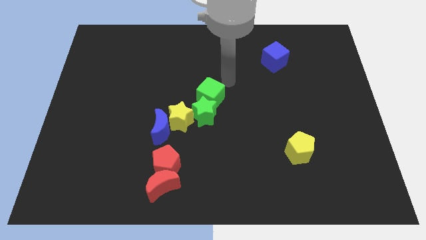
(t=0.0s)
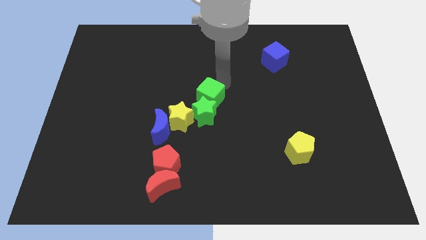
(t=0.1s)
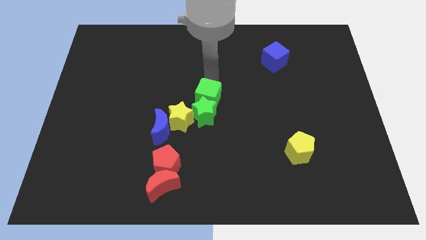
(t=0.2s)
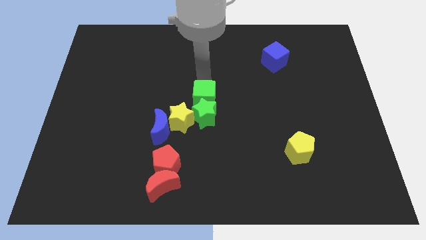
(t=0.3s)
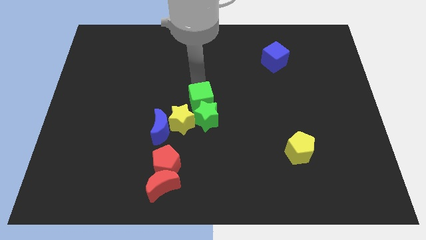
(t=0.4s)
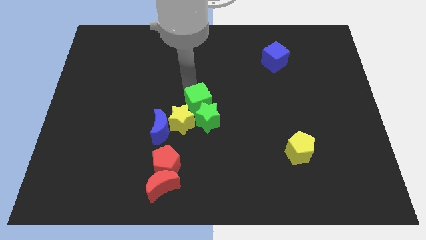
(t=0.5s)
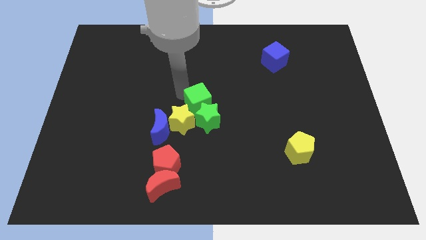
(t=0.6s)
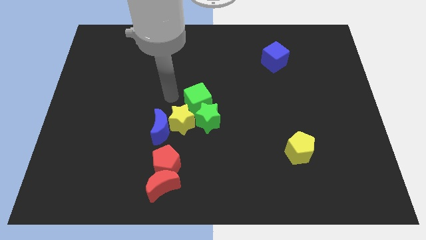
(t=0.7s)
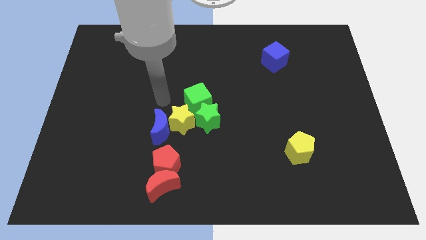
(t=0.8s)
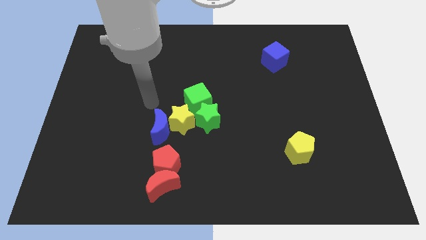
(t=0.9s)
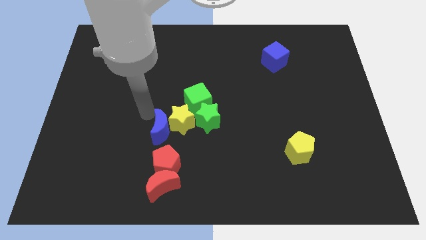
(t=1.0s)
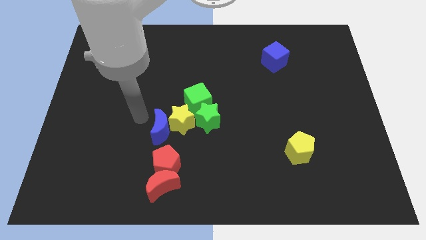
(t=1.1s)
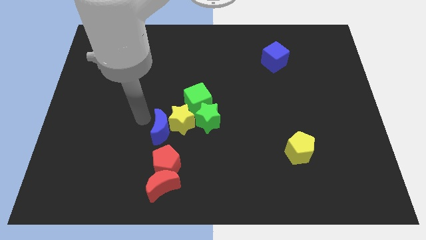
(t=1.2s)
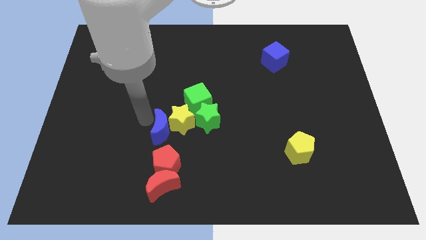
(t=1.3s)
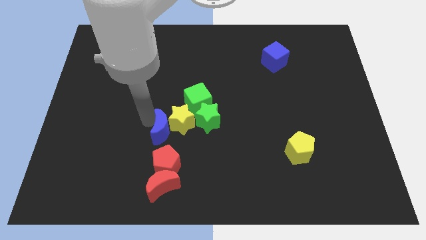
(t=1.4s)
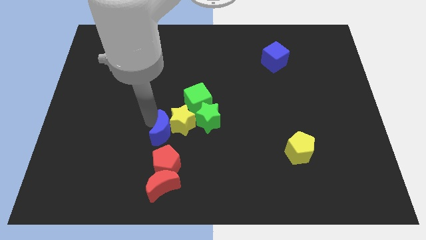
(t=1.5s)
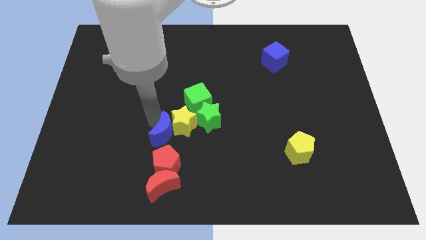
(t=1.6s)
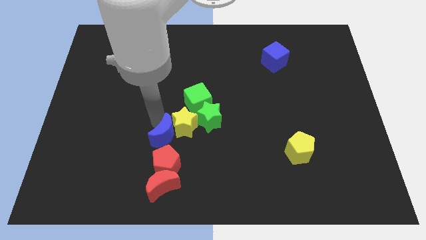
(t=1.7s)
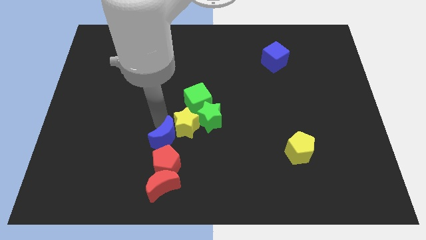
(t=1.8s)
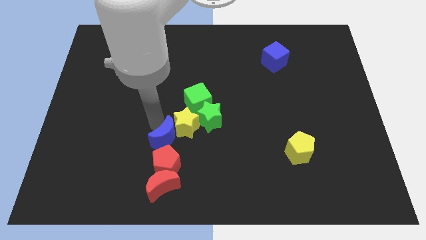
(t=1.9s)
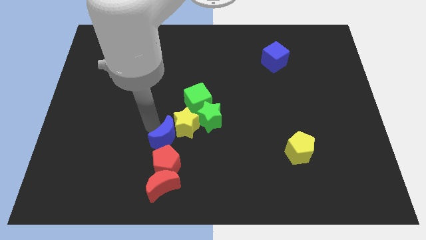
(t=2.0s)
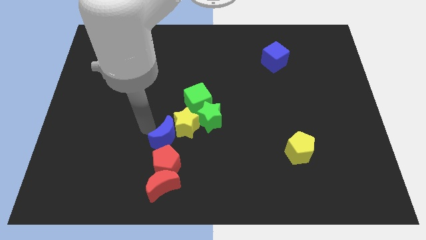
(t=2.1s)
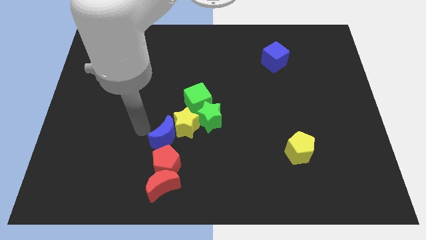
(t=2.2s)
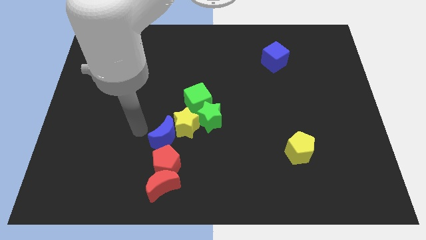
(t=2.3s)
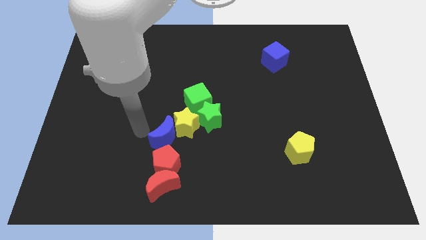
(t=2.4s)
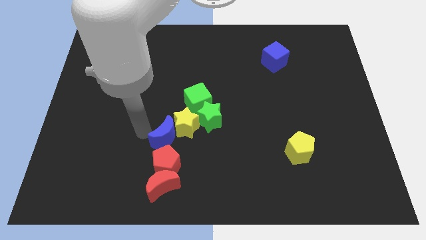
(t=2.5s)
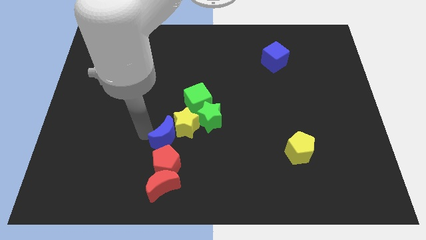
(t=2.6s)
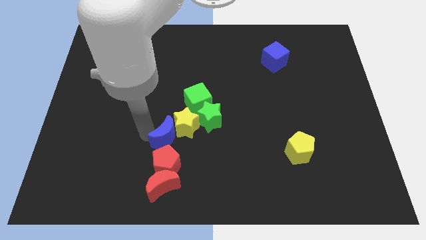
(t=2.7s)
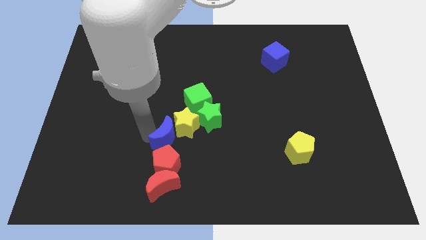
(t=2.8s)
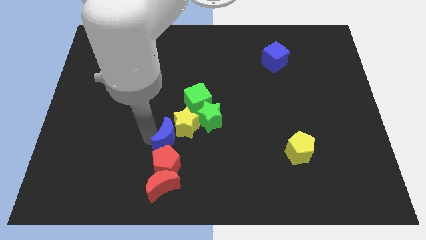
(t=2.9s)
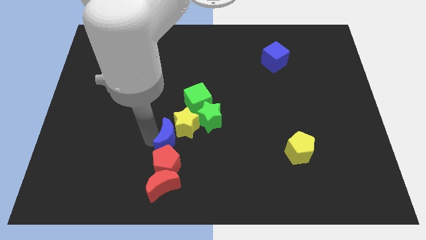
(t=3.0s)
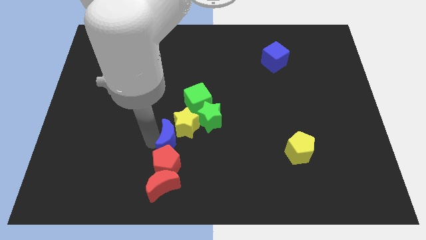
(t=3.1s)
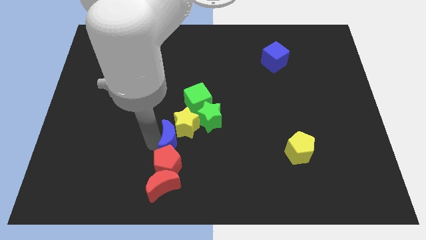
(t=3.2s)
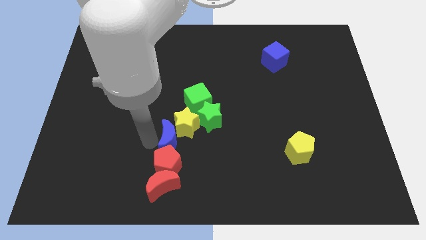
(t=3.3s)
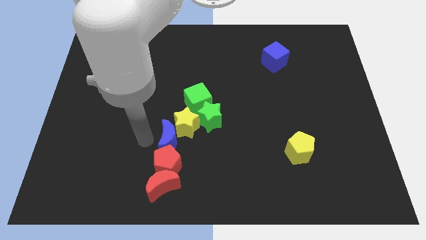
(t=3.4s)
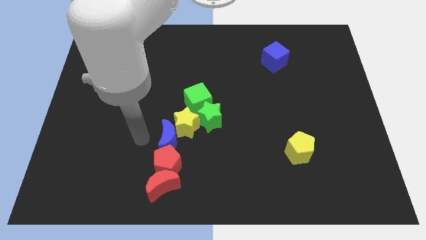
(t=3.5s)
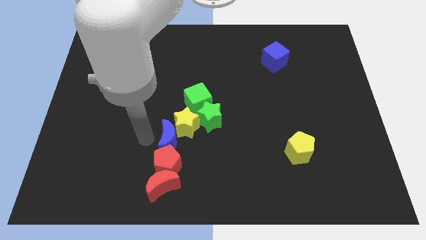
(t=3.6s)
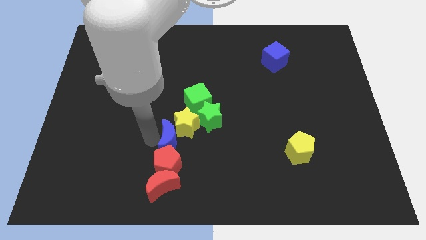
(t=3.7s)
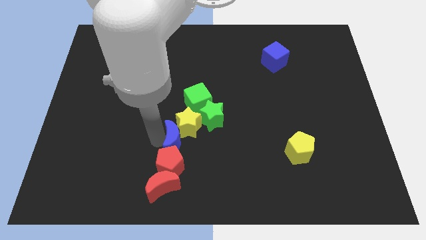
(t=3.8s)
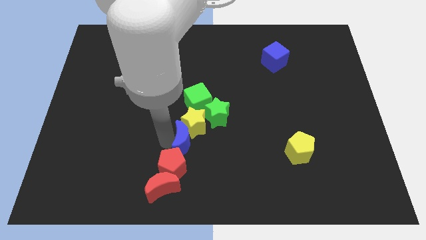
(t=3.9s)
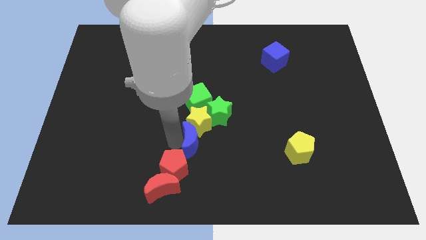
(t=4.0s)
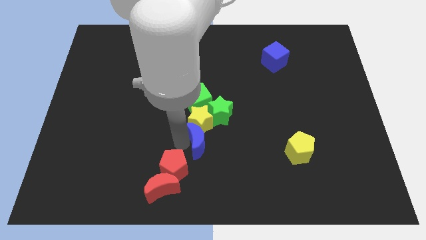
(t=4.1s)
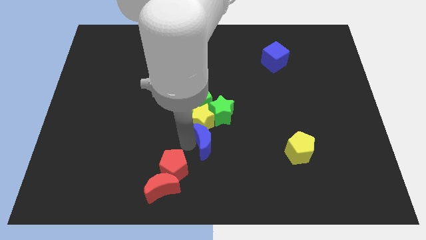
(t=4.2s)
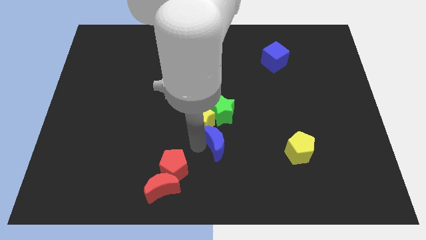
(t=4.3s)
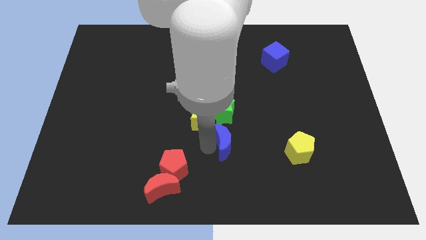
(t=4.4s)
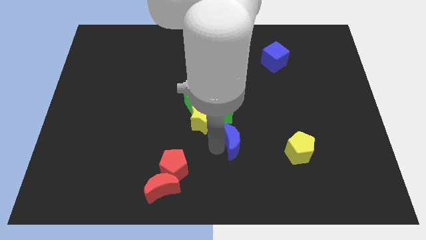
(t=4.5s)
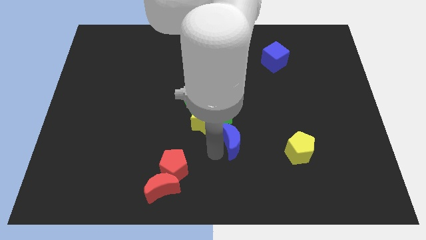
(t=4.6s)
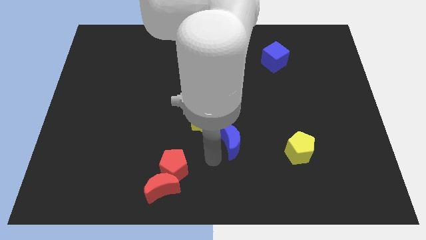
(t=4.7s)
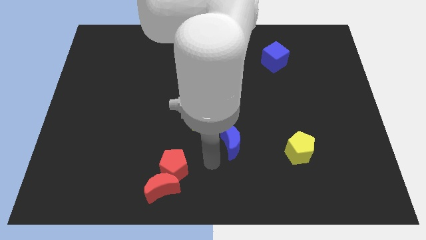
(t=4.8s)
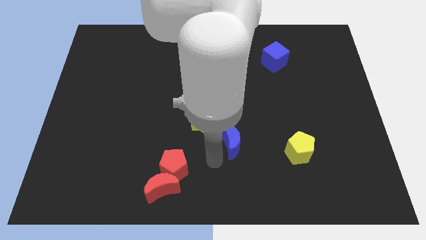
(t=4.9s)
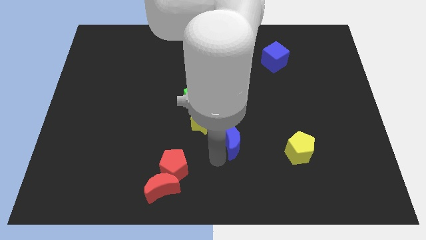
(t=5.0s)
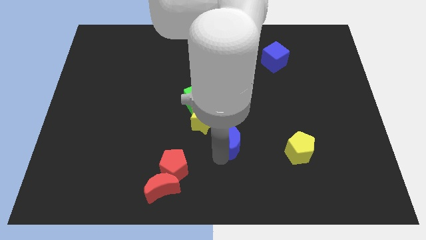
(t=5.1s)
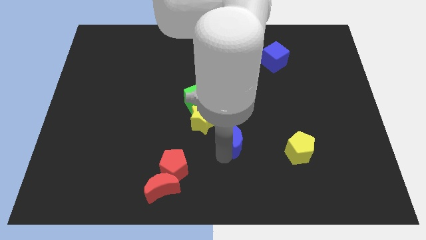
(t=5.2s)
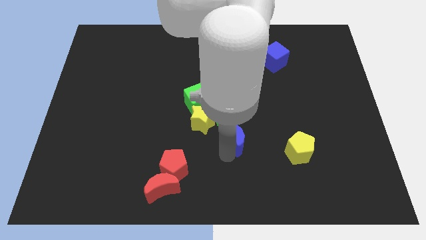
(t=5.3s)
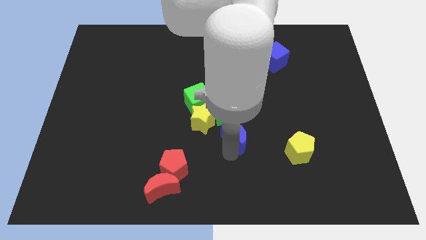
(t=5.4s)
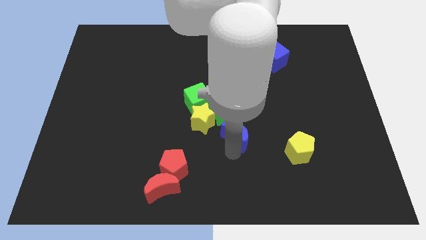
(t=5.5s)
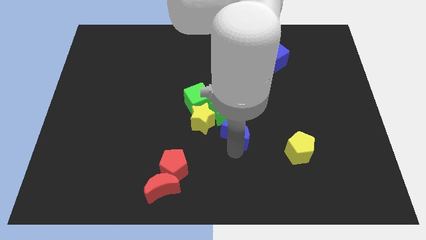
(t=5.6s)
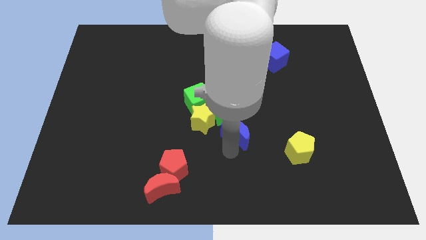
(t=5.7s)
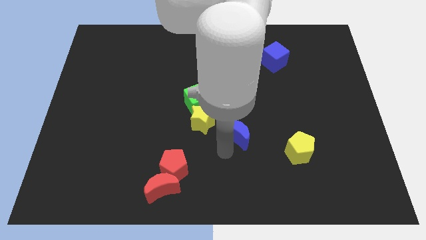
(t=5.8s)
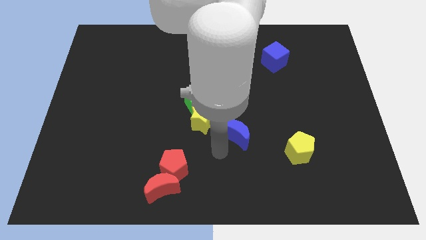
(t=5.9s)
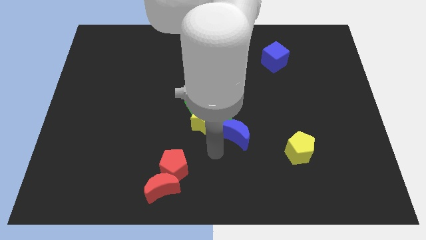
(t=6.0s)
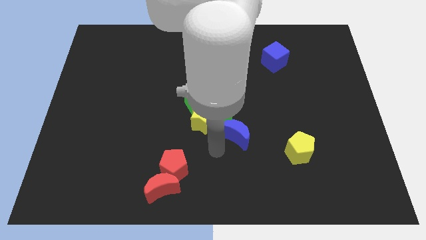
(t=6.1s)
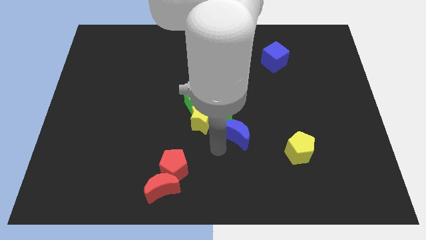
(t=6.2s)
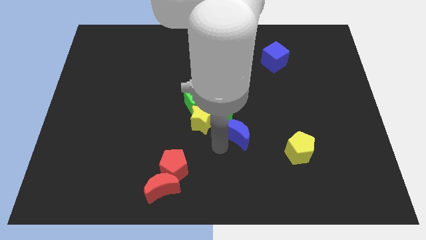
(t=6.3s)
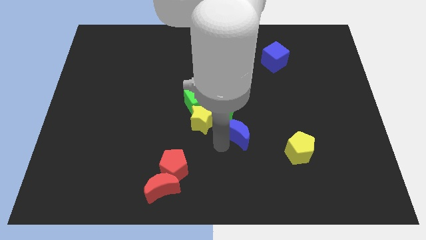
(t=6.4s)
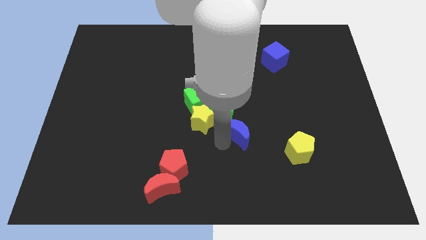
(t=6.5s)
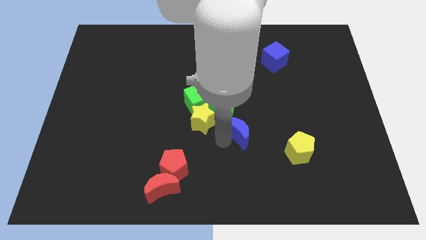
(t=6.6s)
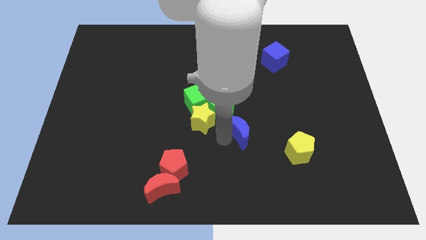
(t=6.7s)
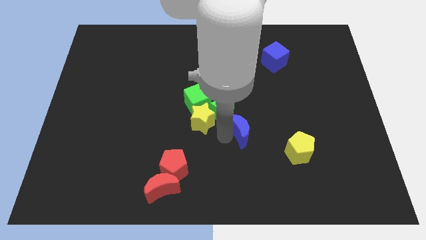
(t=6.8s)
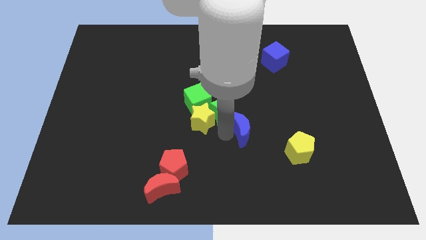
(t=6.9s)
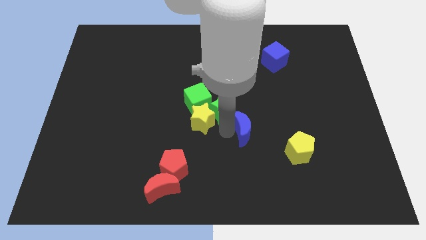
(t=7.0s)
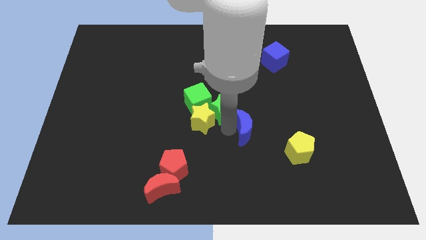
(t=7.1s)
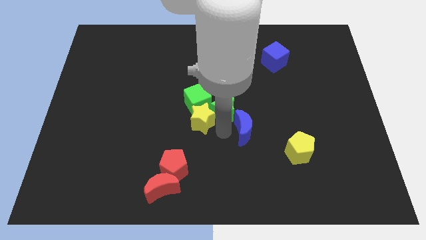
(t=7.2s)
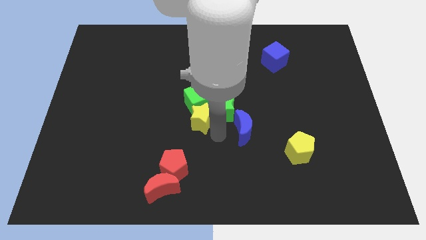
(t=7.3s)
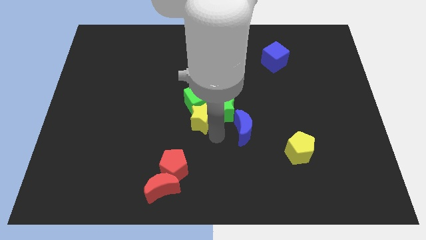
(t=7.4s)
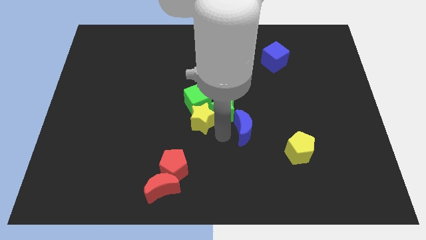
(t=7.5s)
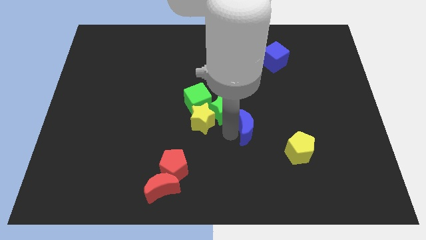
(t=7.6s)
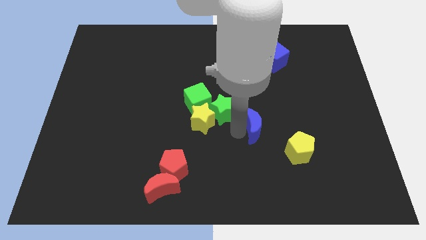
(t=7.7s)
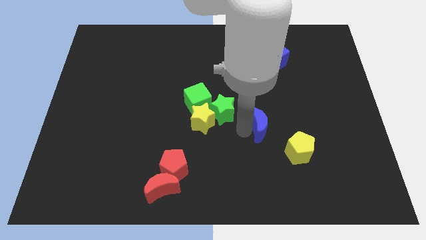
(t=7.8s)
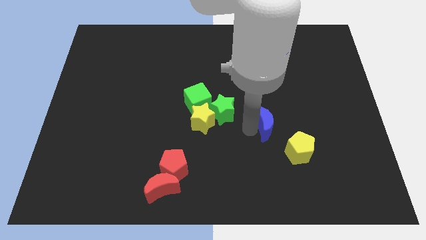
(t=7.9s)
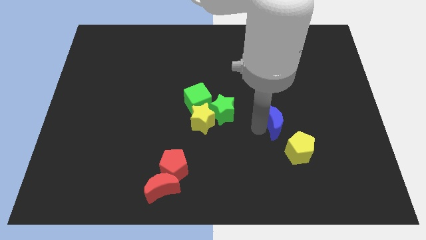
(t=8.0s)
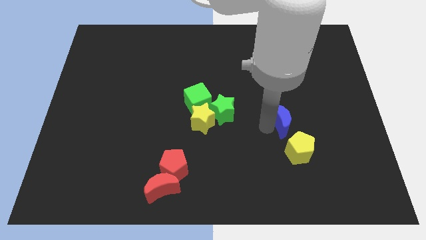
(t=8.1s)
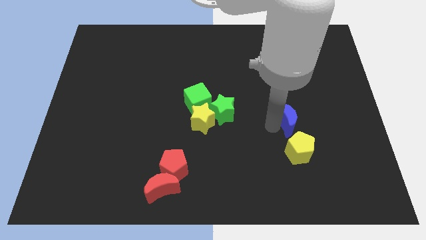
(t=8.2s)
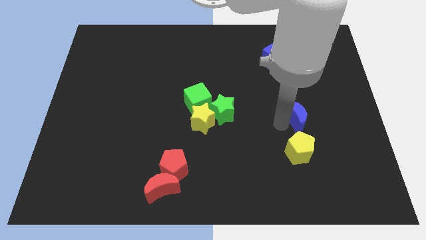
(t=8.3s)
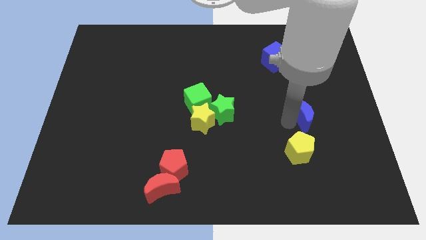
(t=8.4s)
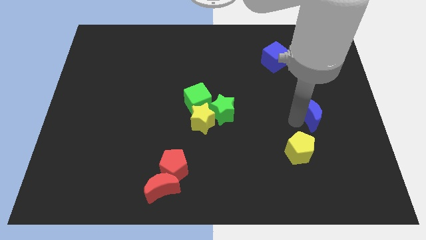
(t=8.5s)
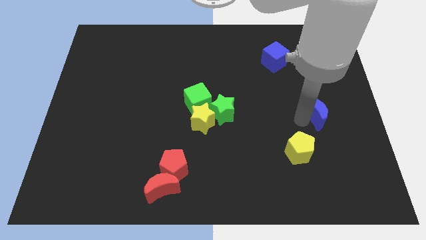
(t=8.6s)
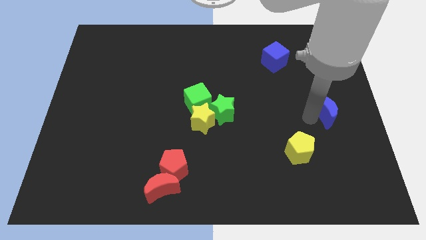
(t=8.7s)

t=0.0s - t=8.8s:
put the blue moon to the right side
